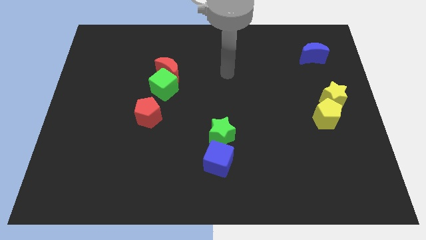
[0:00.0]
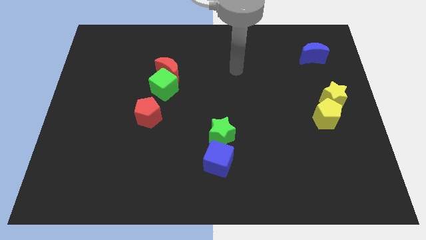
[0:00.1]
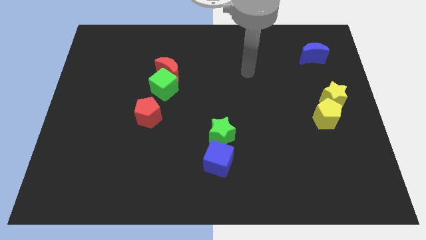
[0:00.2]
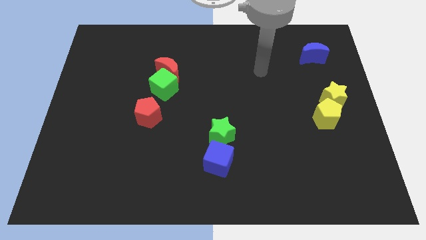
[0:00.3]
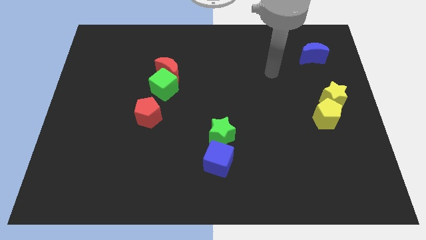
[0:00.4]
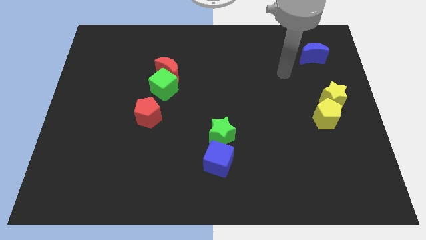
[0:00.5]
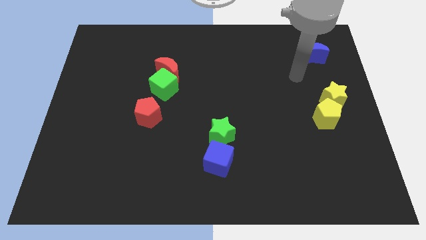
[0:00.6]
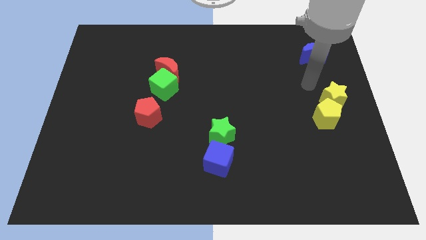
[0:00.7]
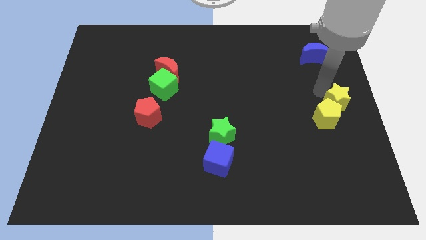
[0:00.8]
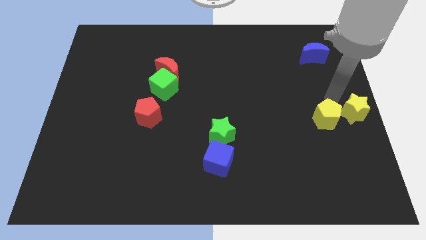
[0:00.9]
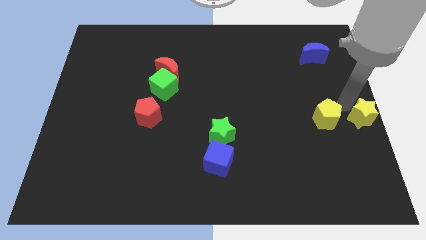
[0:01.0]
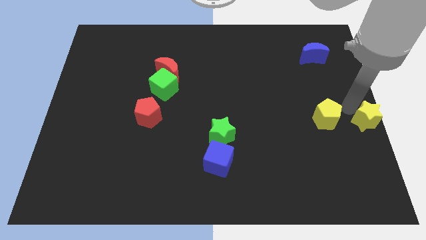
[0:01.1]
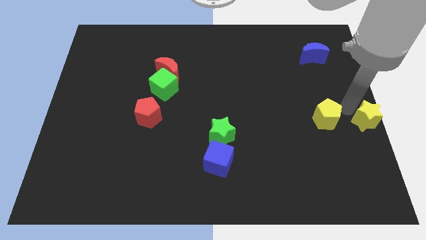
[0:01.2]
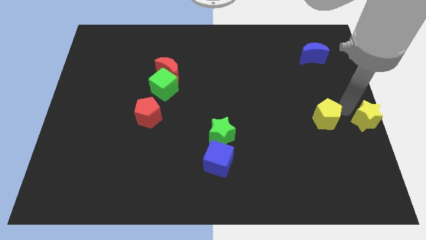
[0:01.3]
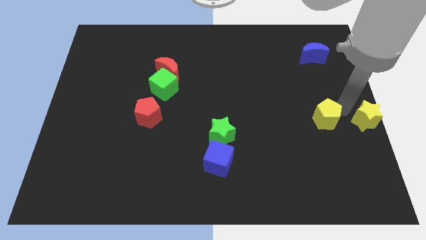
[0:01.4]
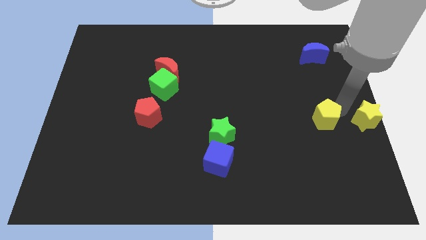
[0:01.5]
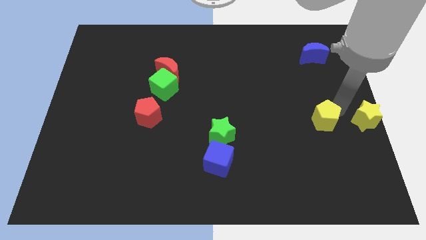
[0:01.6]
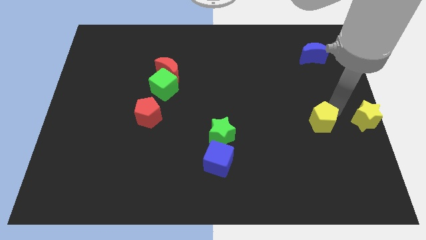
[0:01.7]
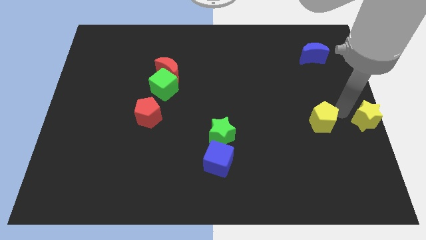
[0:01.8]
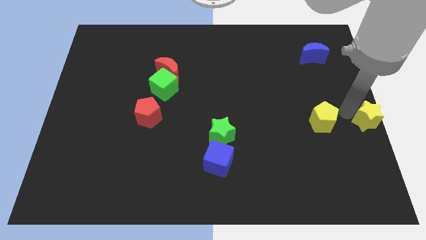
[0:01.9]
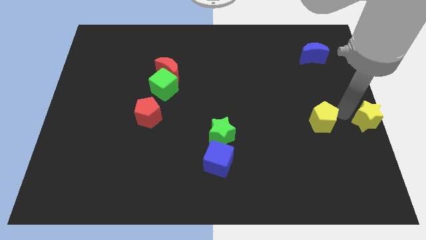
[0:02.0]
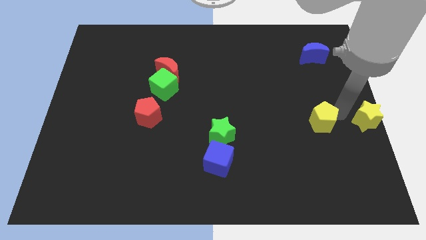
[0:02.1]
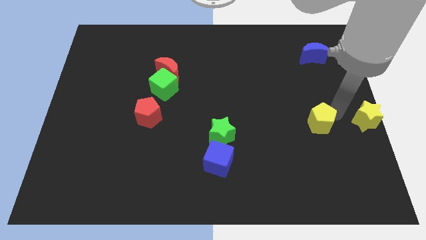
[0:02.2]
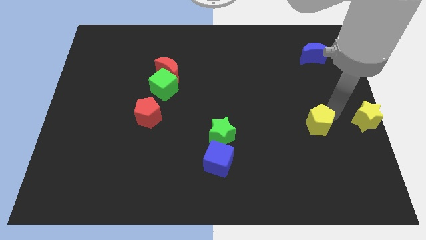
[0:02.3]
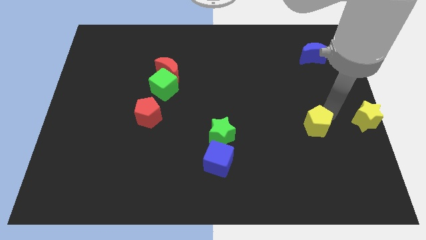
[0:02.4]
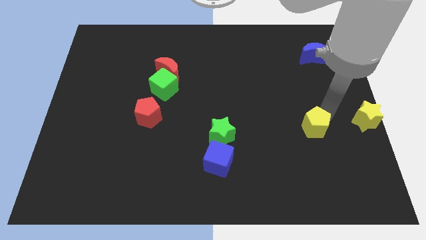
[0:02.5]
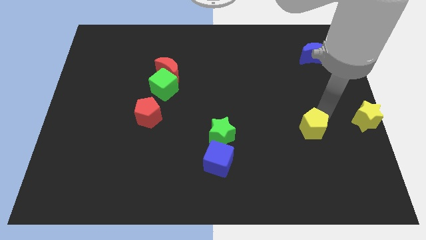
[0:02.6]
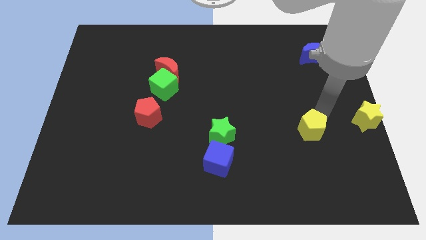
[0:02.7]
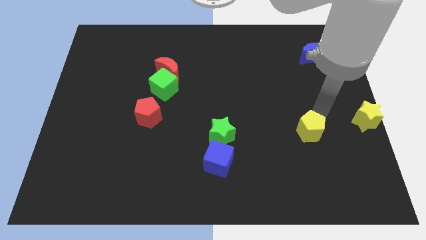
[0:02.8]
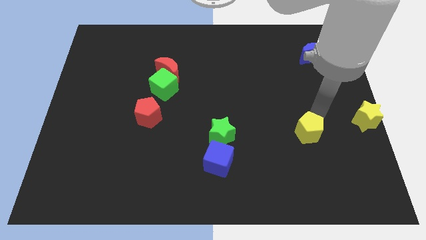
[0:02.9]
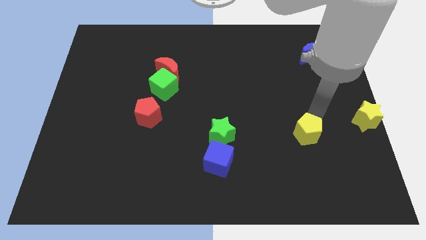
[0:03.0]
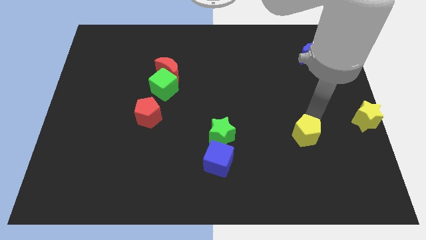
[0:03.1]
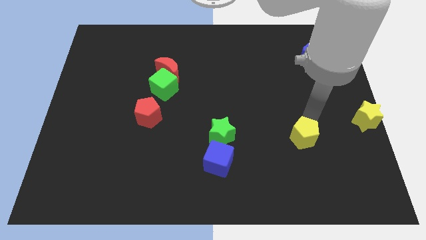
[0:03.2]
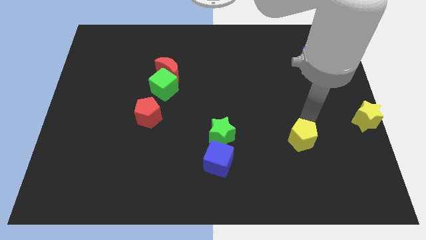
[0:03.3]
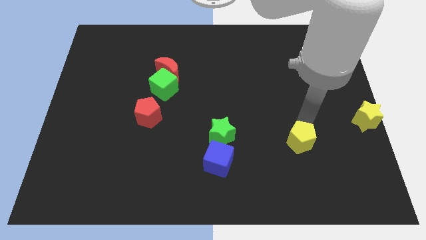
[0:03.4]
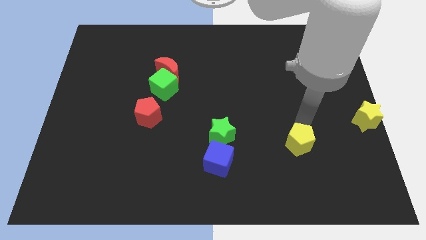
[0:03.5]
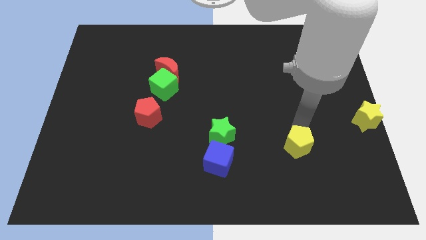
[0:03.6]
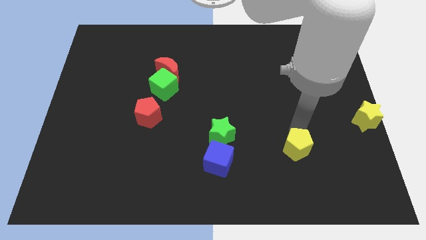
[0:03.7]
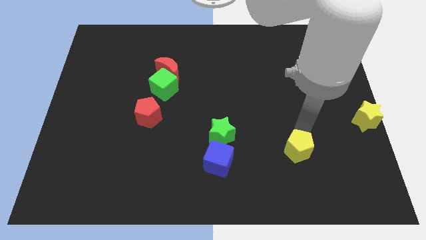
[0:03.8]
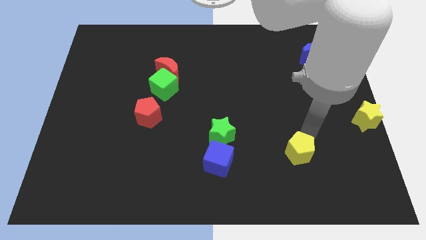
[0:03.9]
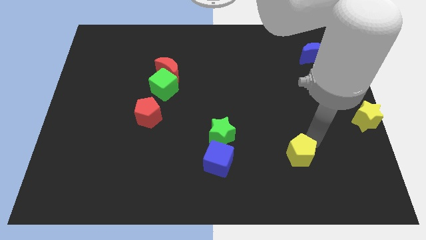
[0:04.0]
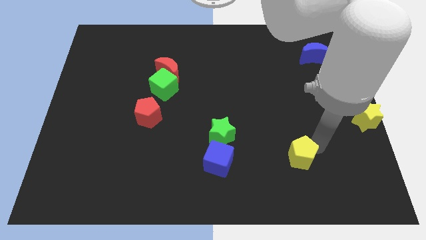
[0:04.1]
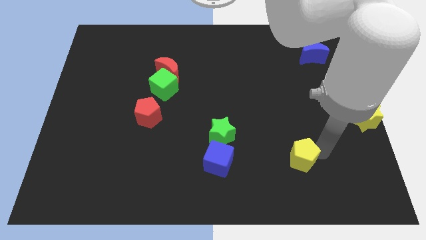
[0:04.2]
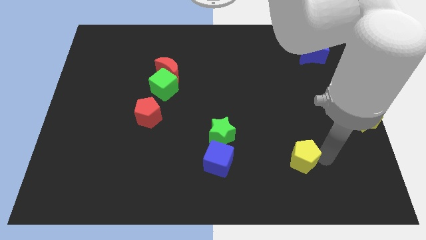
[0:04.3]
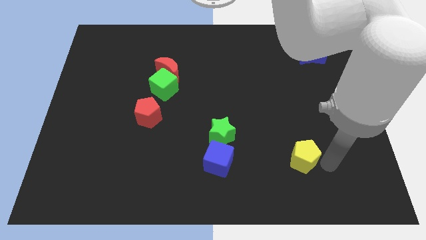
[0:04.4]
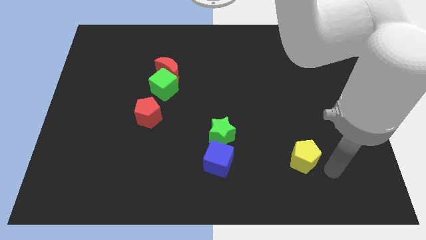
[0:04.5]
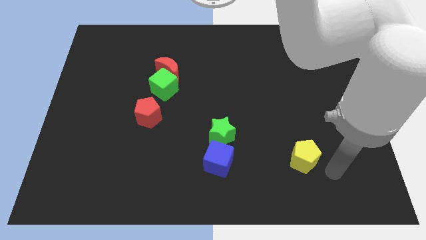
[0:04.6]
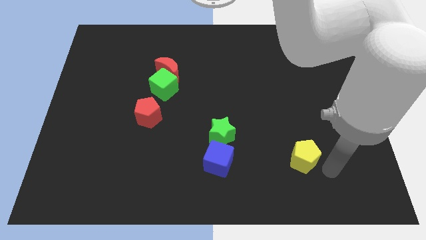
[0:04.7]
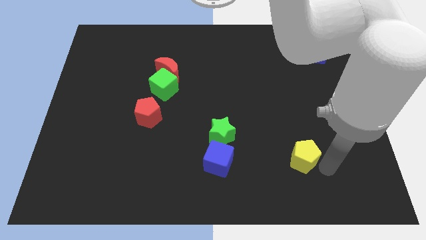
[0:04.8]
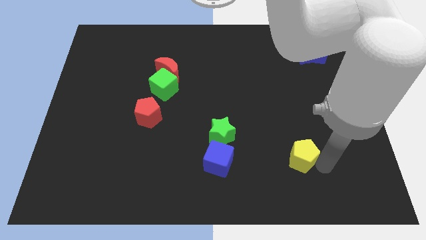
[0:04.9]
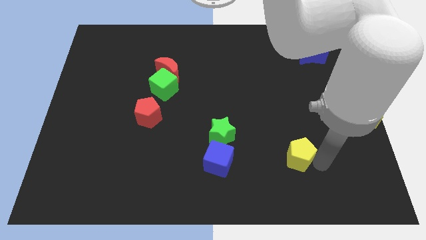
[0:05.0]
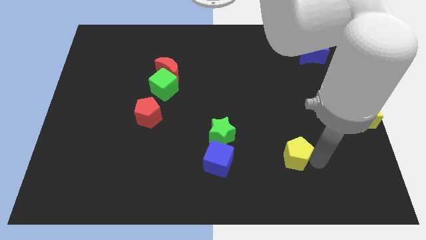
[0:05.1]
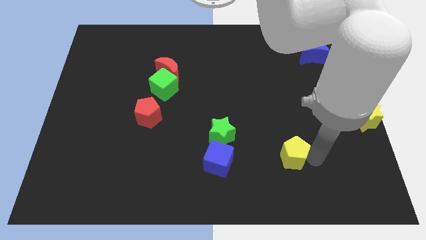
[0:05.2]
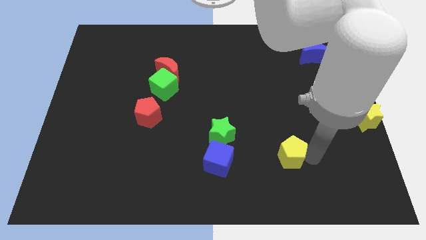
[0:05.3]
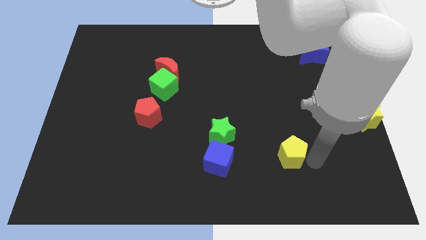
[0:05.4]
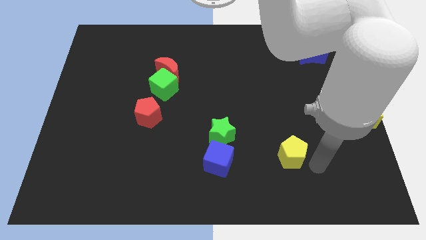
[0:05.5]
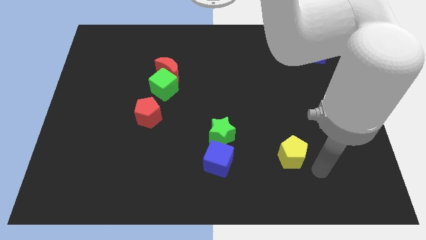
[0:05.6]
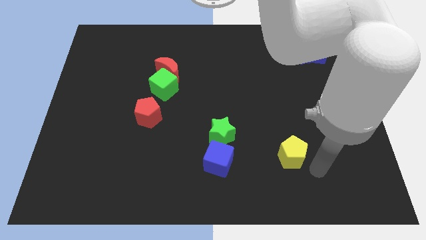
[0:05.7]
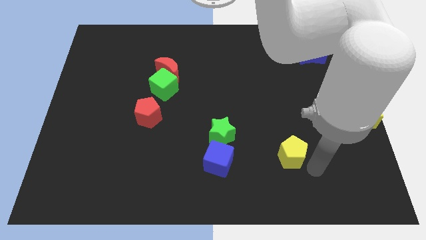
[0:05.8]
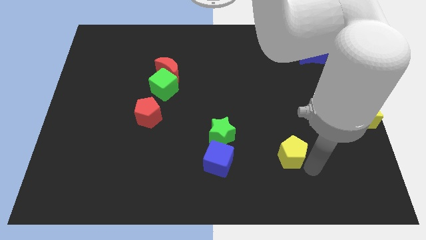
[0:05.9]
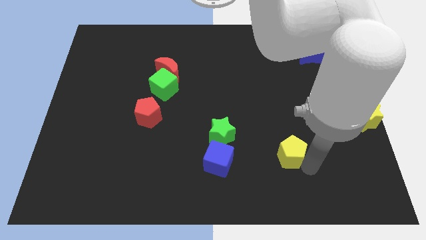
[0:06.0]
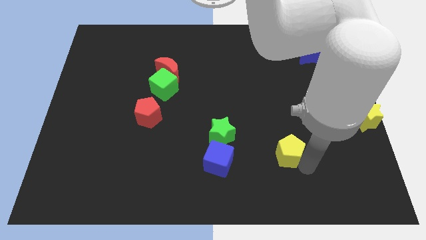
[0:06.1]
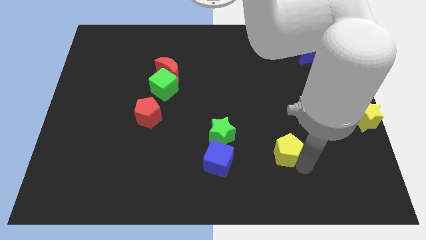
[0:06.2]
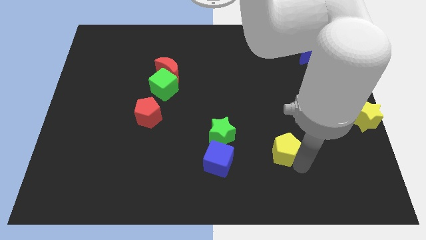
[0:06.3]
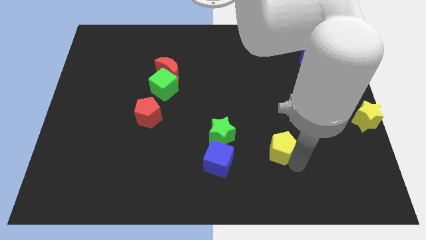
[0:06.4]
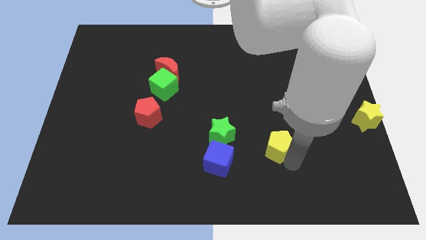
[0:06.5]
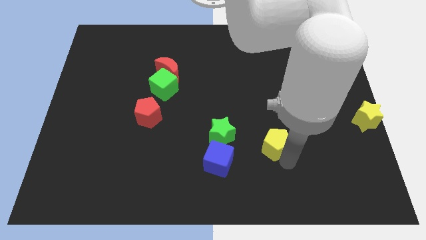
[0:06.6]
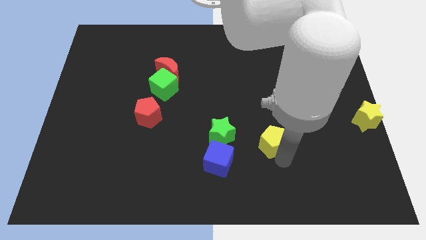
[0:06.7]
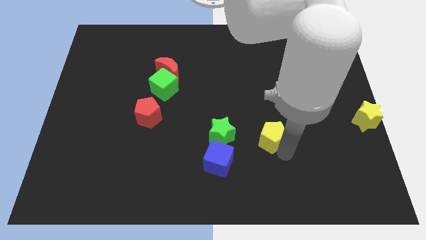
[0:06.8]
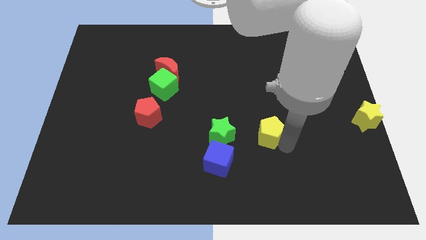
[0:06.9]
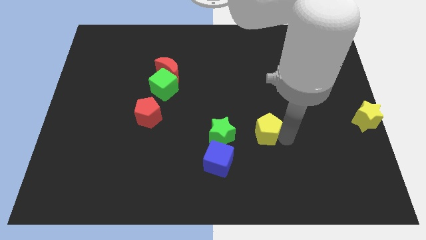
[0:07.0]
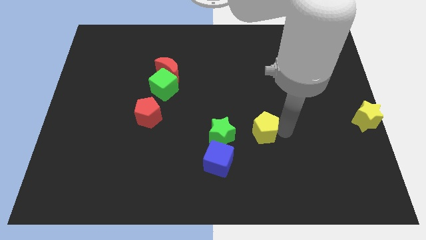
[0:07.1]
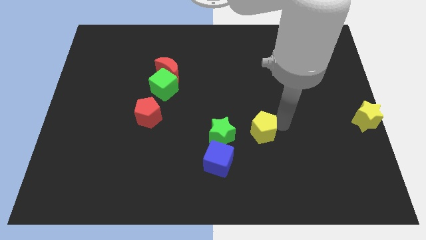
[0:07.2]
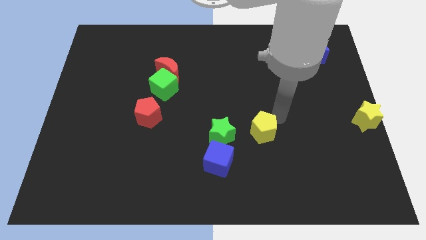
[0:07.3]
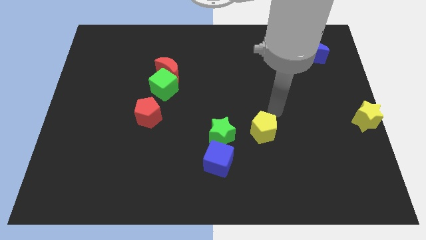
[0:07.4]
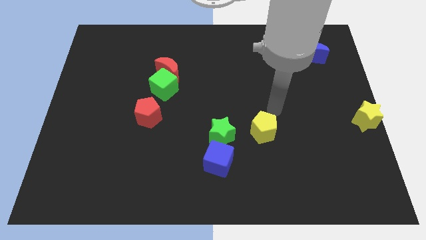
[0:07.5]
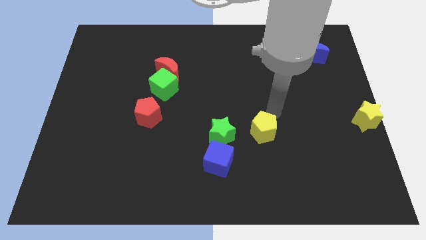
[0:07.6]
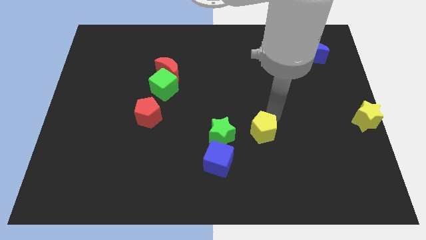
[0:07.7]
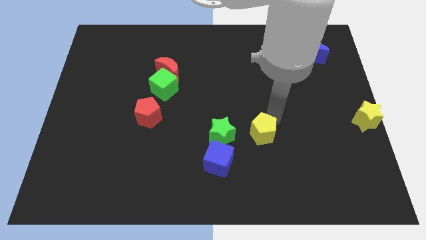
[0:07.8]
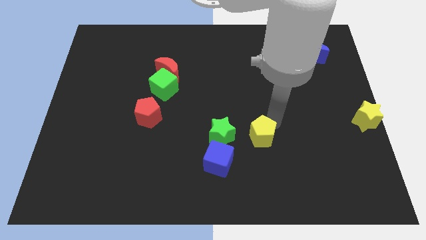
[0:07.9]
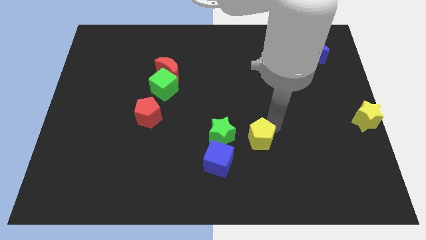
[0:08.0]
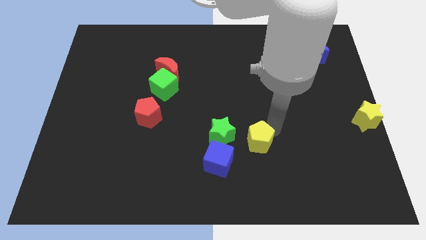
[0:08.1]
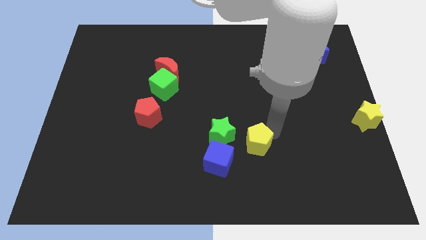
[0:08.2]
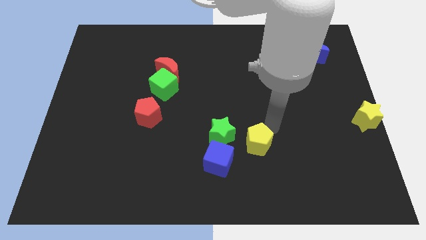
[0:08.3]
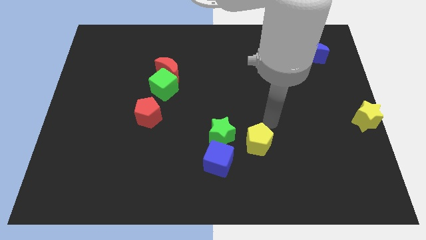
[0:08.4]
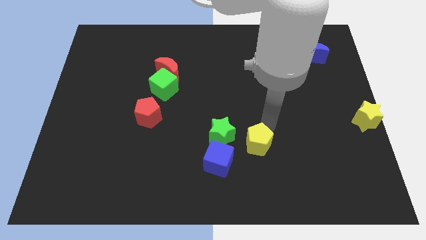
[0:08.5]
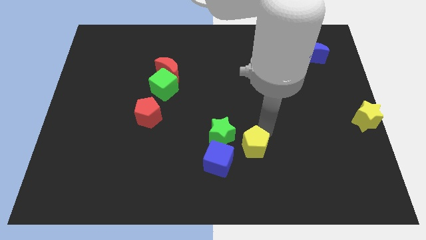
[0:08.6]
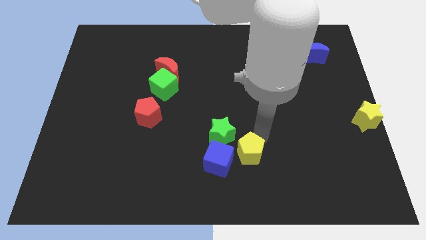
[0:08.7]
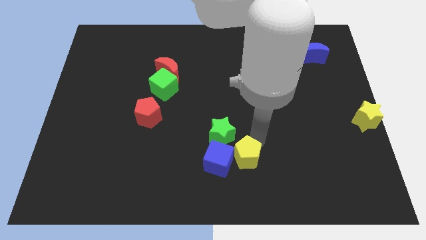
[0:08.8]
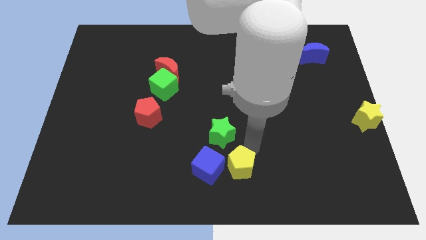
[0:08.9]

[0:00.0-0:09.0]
put the yellow pentagon to the bottom
